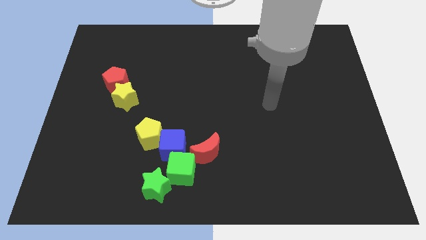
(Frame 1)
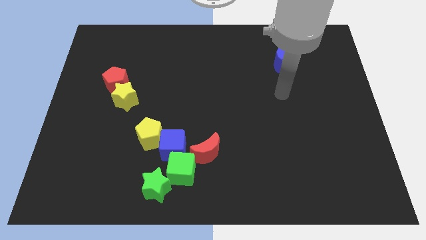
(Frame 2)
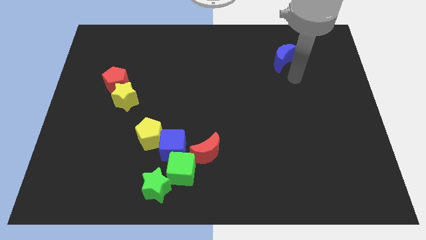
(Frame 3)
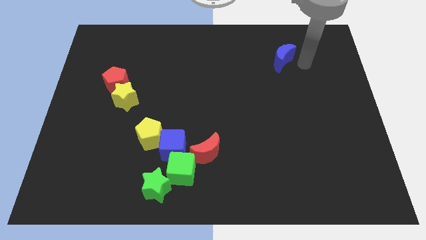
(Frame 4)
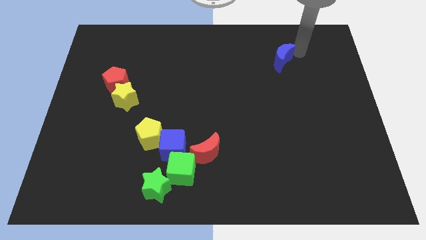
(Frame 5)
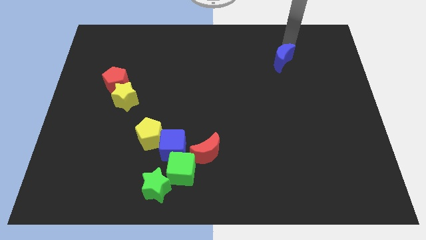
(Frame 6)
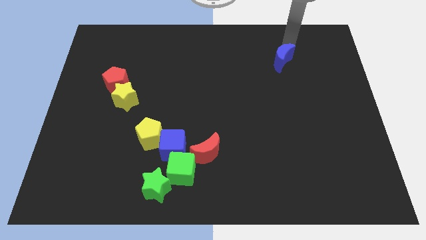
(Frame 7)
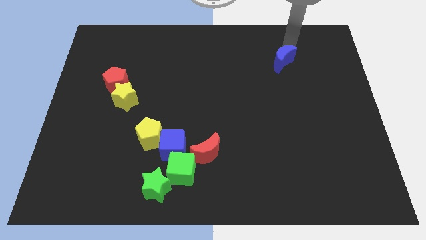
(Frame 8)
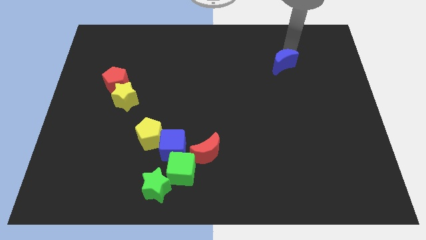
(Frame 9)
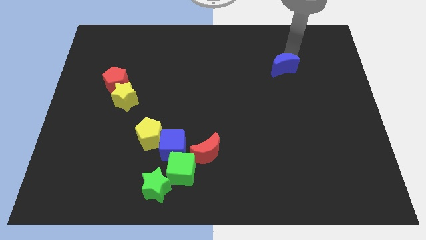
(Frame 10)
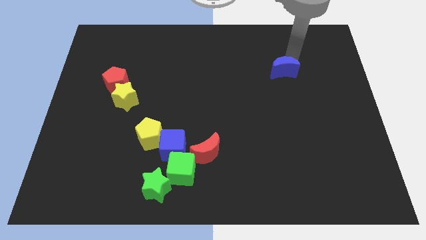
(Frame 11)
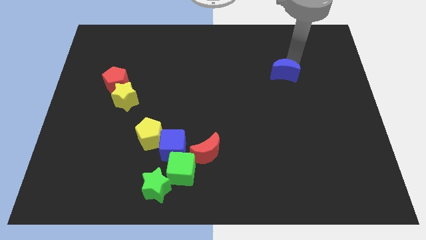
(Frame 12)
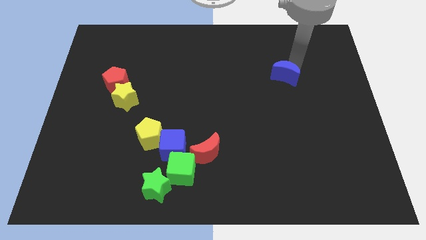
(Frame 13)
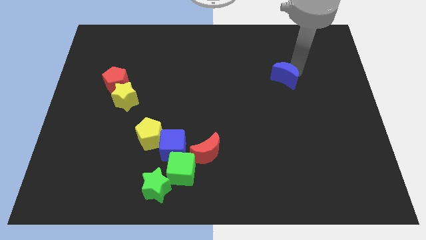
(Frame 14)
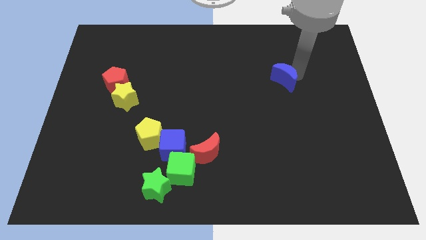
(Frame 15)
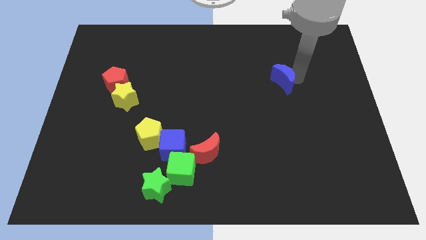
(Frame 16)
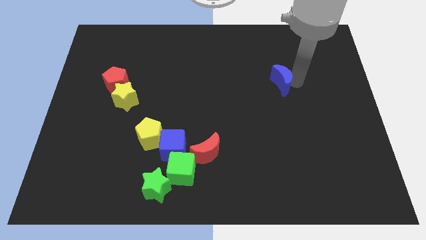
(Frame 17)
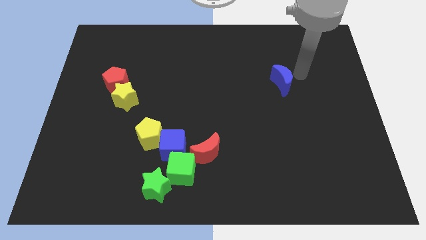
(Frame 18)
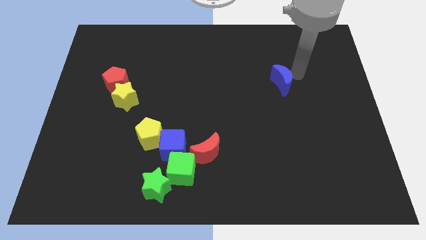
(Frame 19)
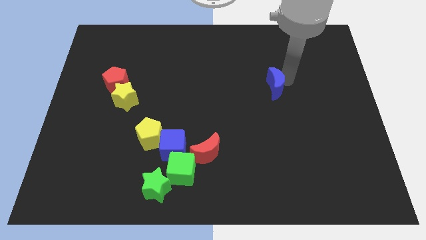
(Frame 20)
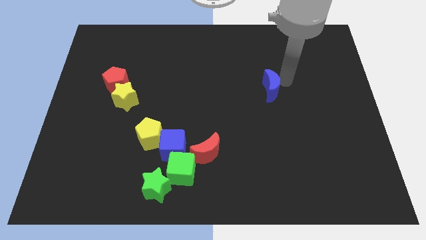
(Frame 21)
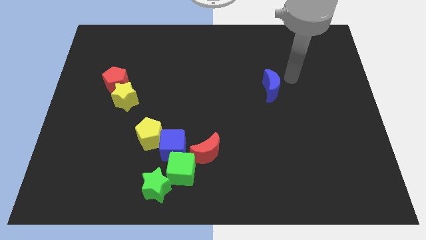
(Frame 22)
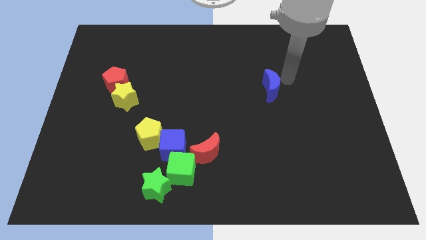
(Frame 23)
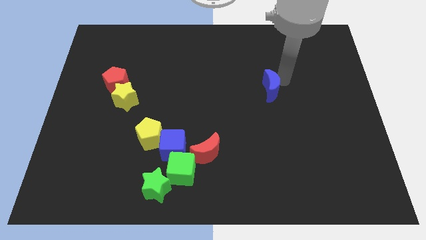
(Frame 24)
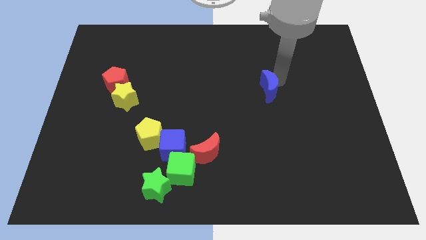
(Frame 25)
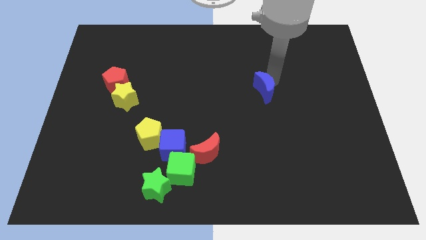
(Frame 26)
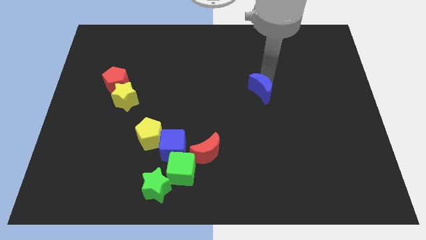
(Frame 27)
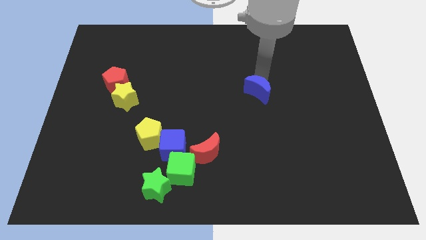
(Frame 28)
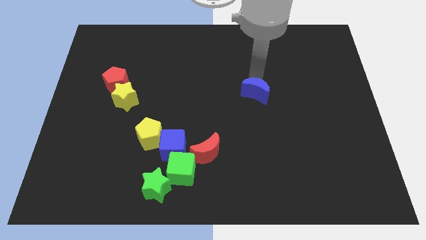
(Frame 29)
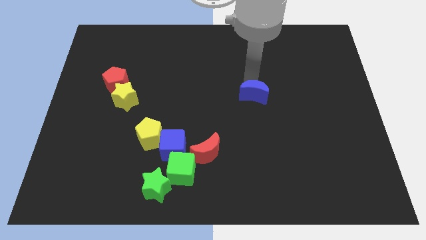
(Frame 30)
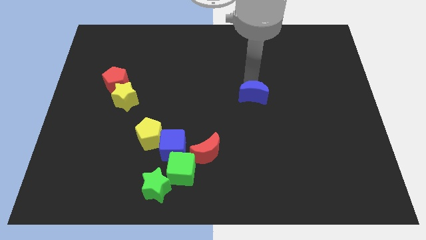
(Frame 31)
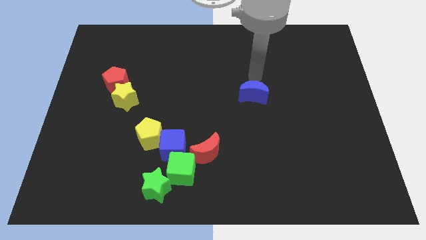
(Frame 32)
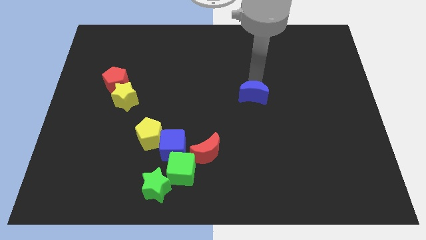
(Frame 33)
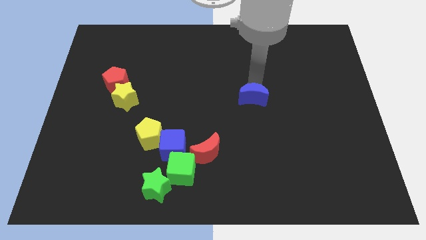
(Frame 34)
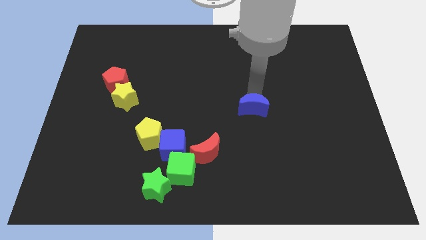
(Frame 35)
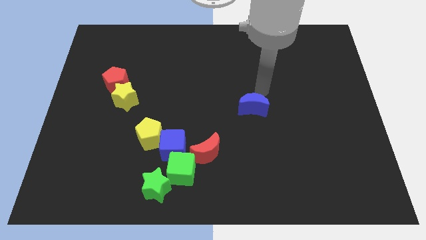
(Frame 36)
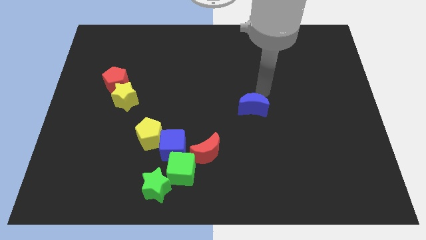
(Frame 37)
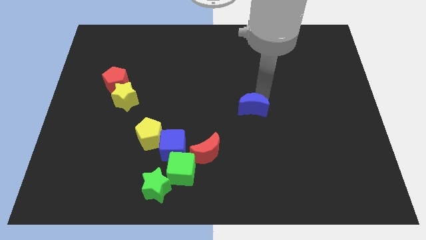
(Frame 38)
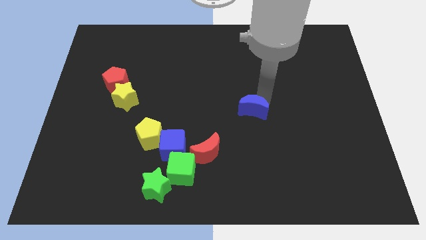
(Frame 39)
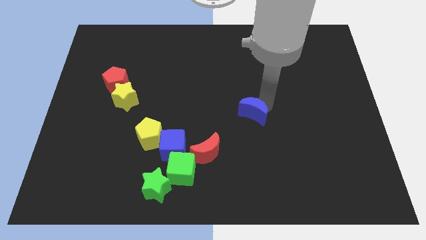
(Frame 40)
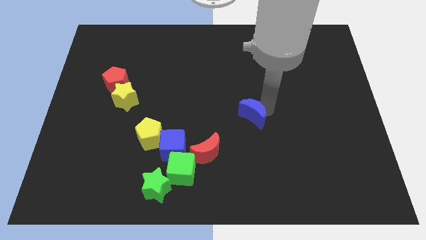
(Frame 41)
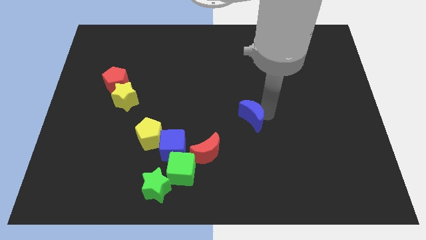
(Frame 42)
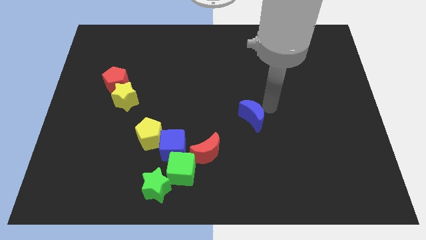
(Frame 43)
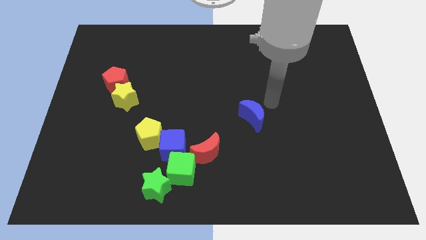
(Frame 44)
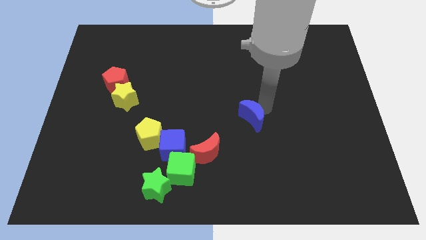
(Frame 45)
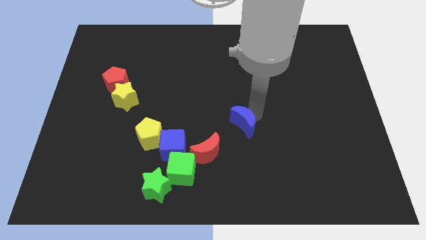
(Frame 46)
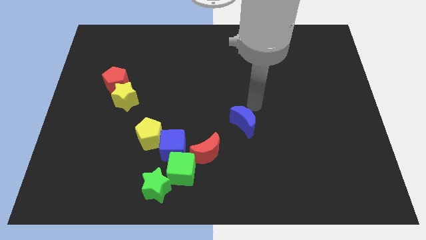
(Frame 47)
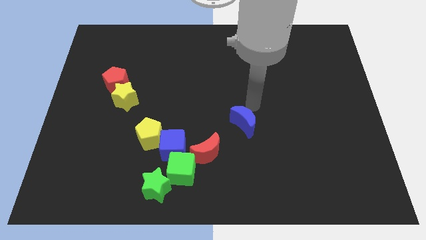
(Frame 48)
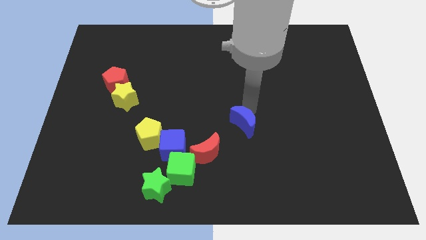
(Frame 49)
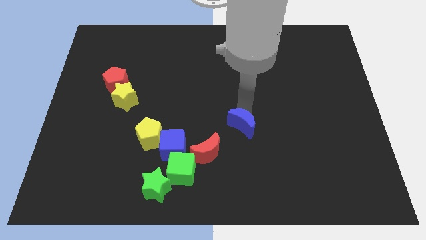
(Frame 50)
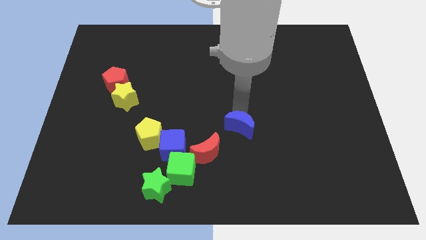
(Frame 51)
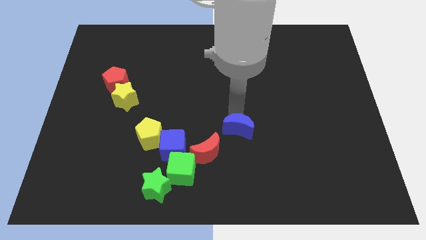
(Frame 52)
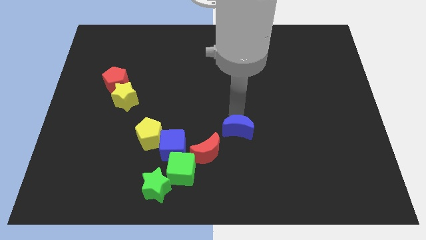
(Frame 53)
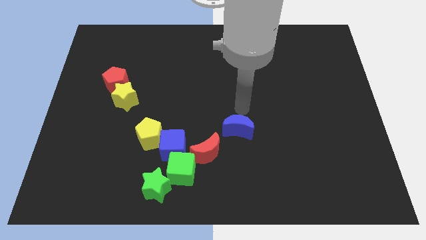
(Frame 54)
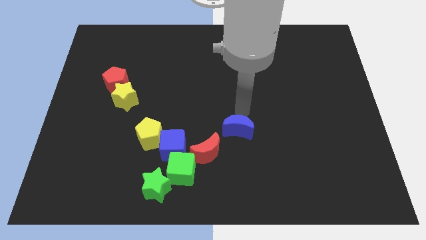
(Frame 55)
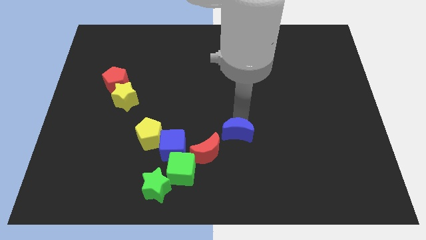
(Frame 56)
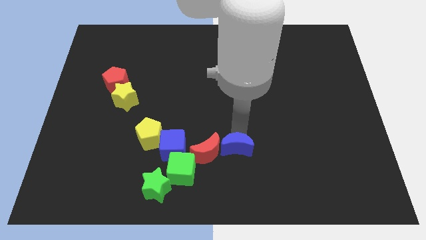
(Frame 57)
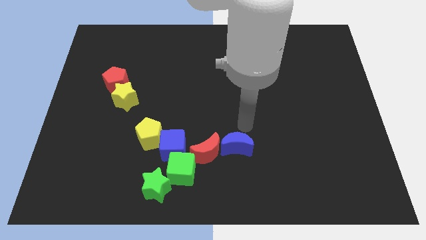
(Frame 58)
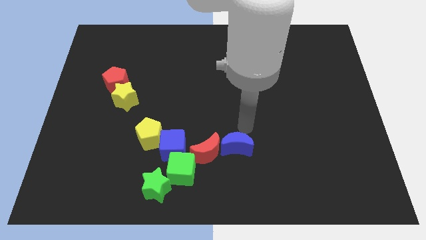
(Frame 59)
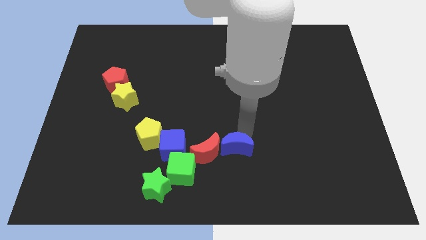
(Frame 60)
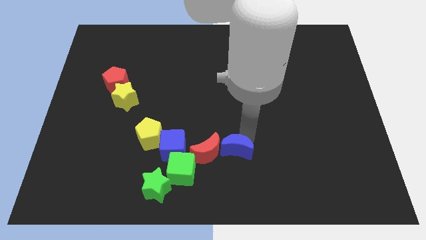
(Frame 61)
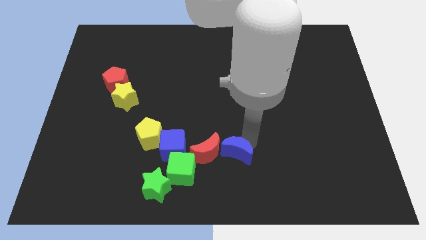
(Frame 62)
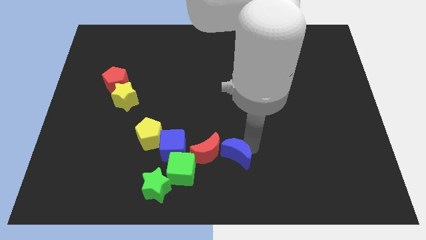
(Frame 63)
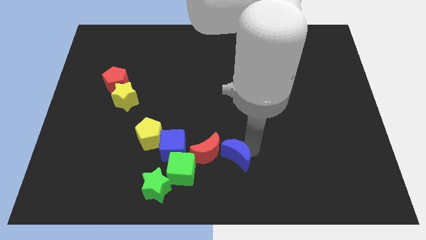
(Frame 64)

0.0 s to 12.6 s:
put the blue moon to the bottom side

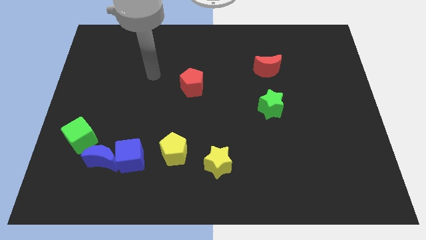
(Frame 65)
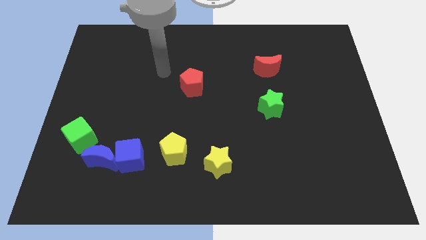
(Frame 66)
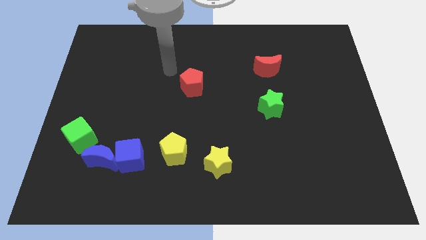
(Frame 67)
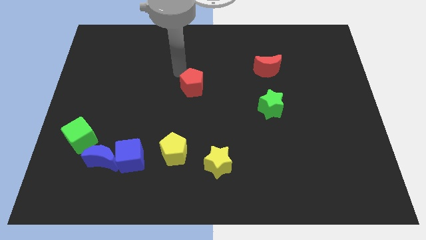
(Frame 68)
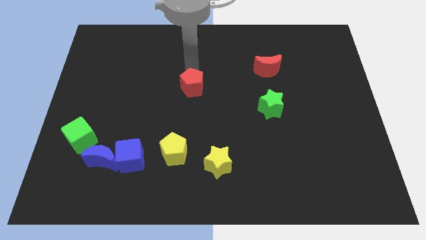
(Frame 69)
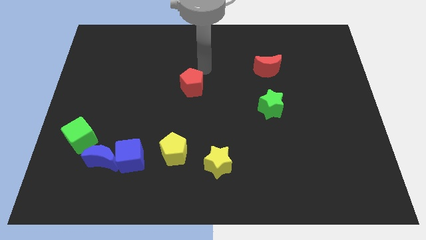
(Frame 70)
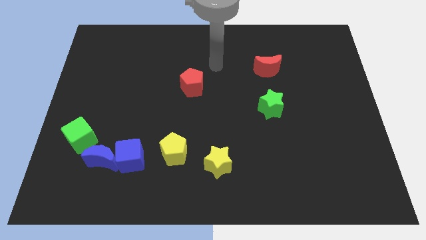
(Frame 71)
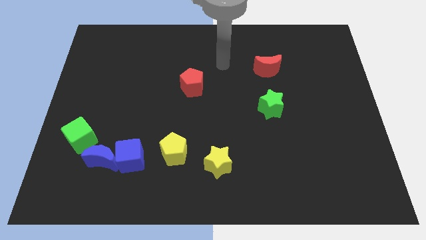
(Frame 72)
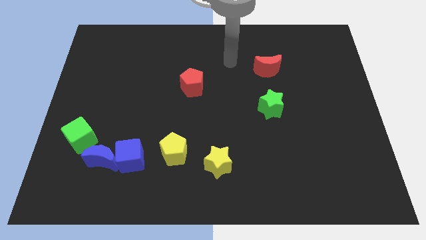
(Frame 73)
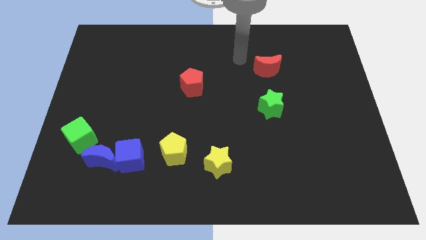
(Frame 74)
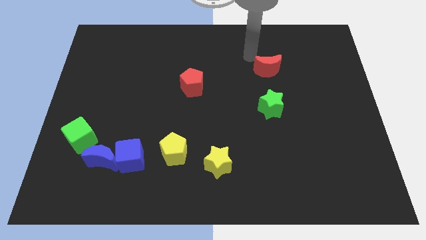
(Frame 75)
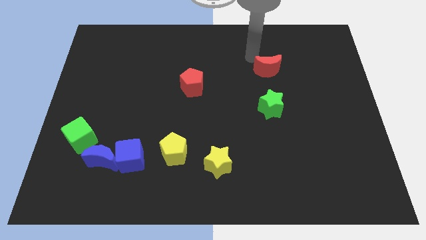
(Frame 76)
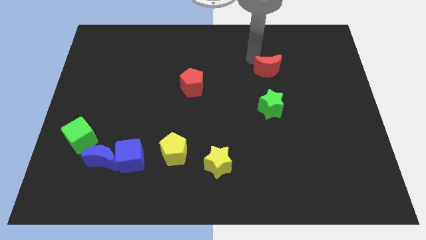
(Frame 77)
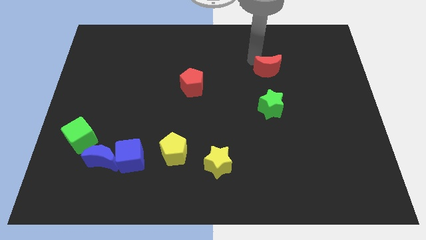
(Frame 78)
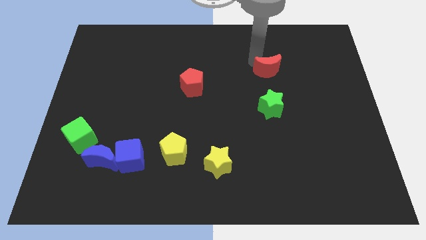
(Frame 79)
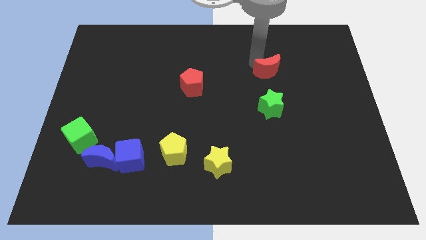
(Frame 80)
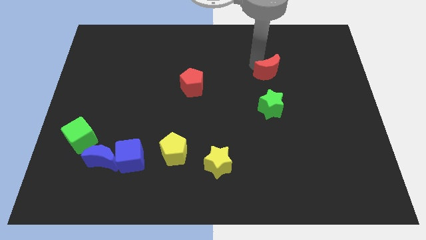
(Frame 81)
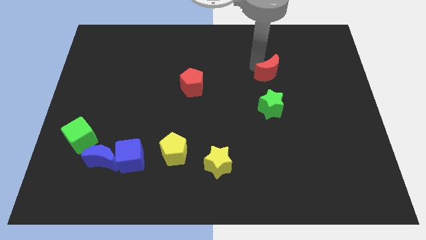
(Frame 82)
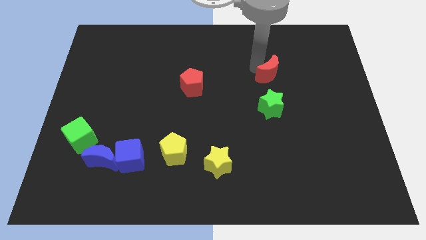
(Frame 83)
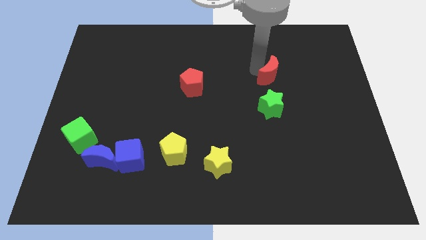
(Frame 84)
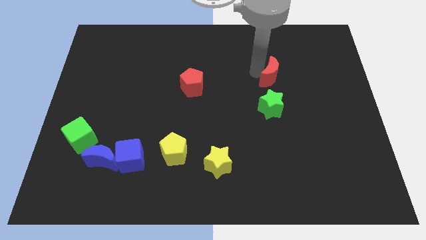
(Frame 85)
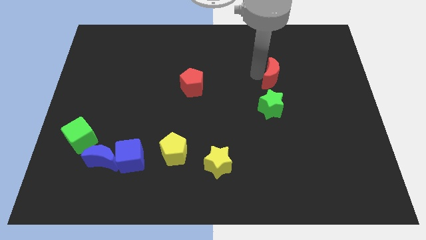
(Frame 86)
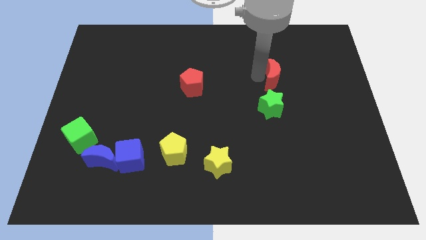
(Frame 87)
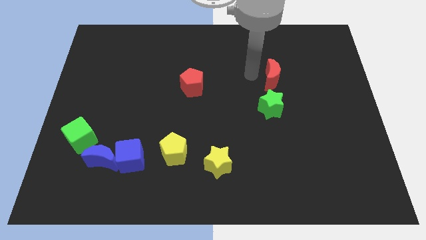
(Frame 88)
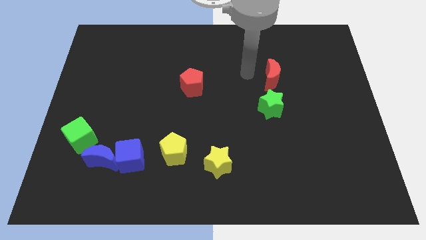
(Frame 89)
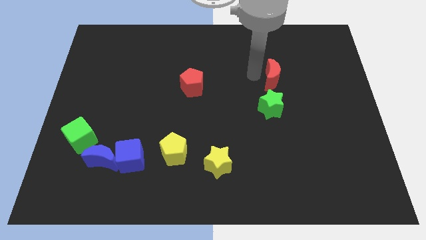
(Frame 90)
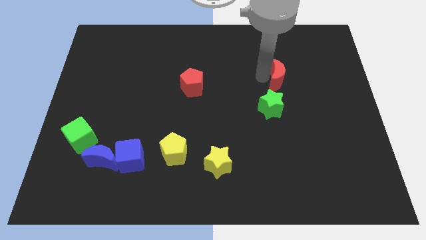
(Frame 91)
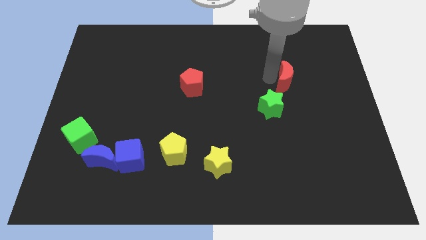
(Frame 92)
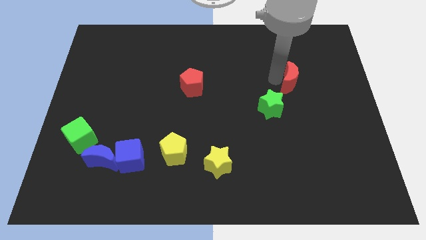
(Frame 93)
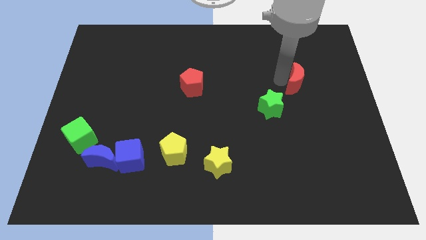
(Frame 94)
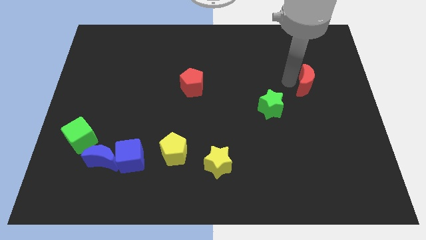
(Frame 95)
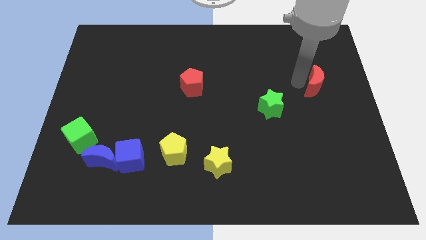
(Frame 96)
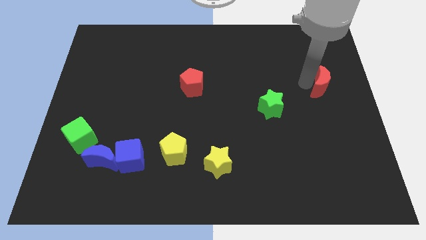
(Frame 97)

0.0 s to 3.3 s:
push the red moon to the right side
